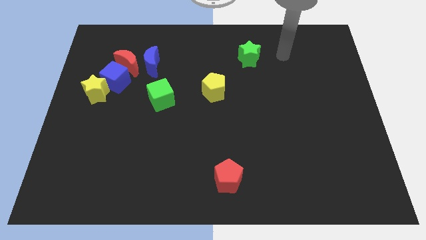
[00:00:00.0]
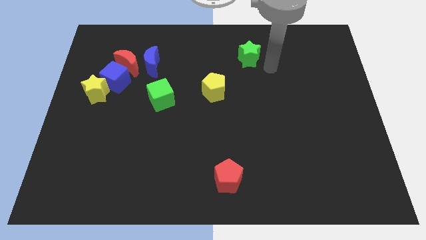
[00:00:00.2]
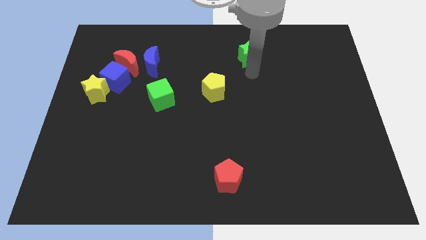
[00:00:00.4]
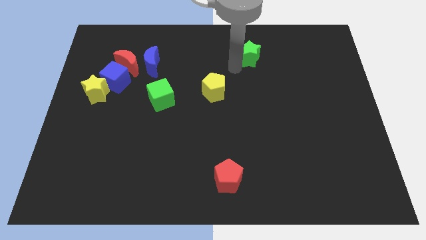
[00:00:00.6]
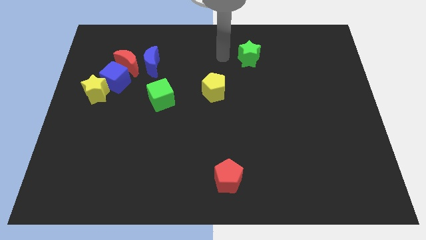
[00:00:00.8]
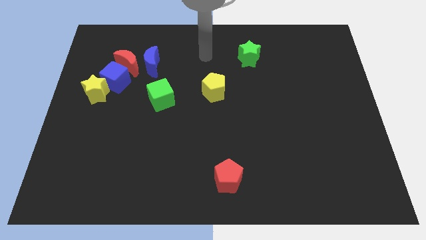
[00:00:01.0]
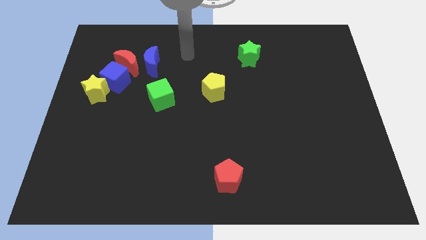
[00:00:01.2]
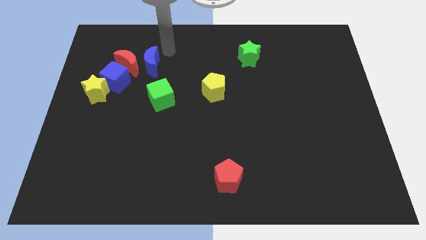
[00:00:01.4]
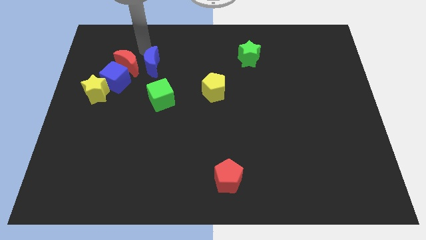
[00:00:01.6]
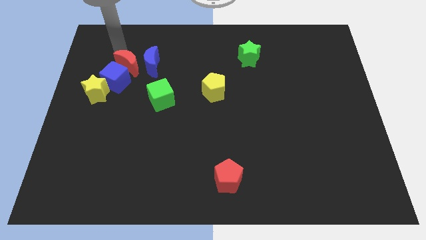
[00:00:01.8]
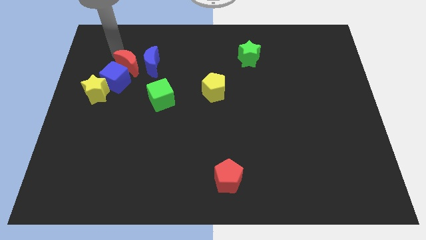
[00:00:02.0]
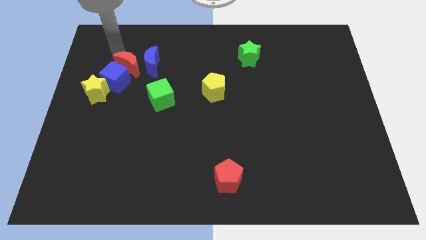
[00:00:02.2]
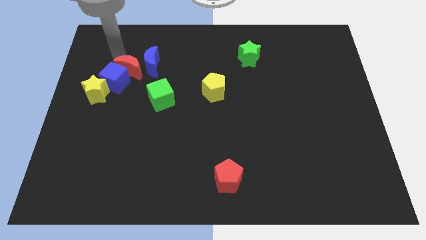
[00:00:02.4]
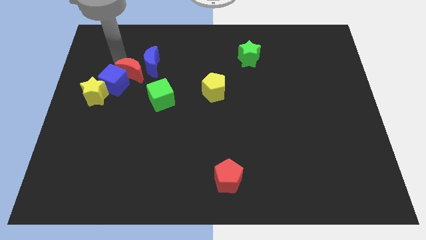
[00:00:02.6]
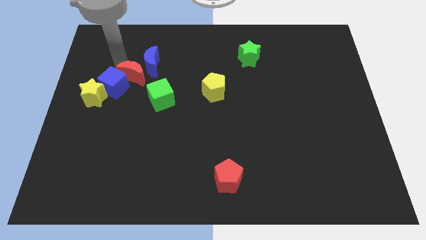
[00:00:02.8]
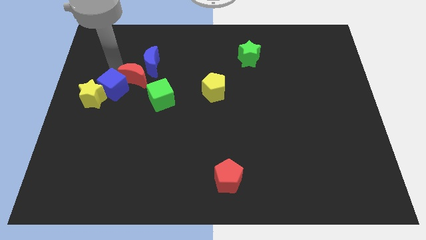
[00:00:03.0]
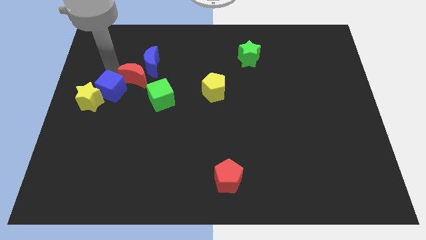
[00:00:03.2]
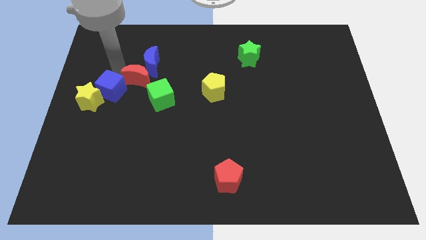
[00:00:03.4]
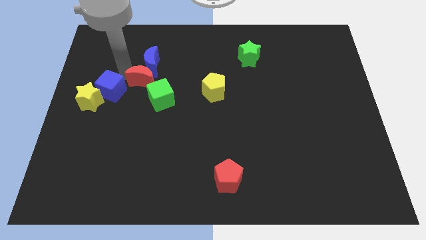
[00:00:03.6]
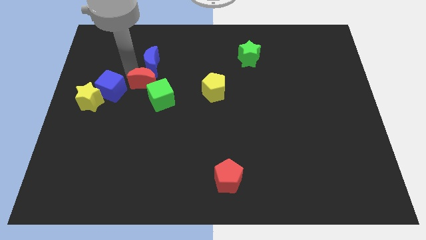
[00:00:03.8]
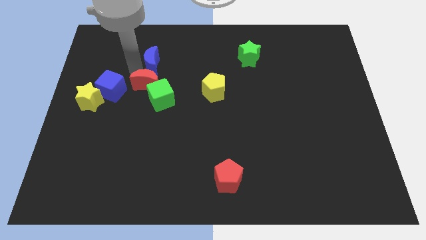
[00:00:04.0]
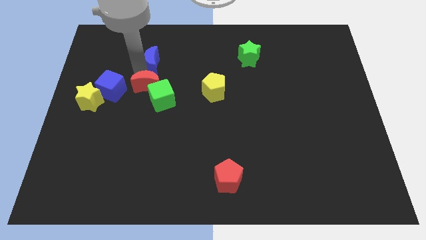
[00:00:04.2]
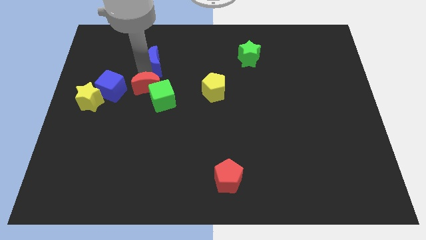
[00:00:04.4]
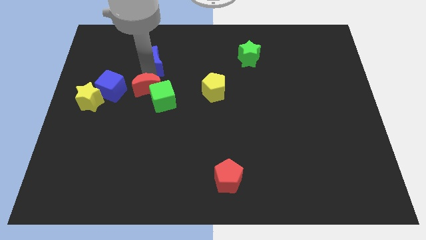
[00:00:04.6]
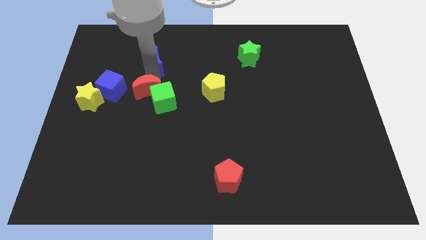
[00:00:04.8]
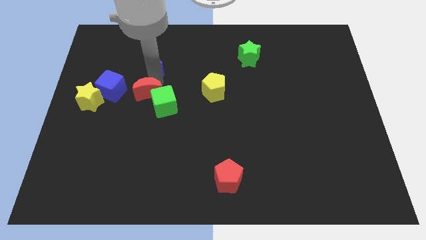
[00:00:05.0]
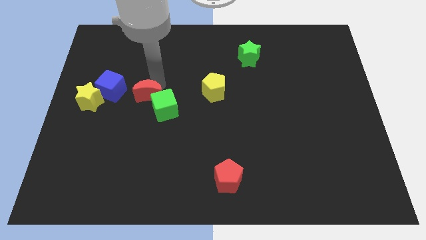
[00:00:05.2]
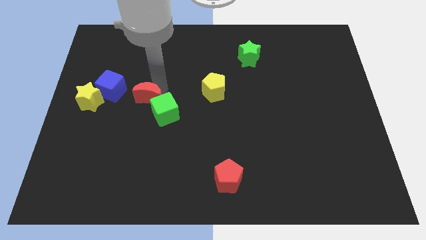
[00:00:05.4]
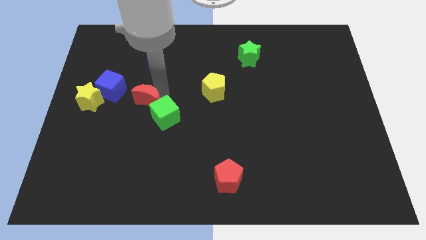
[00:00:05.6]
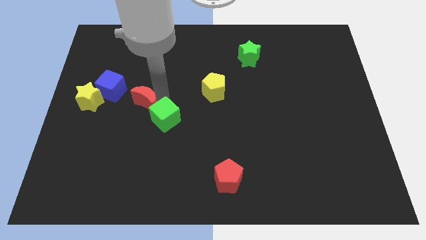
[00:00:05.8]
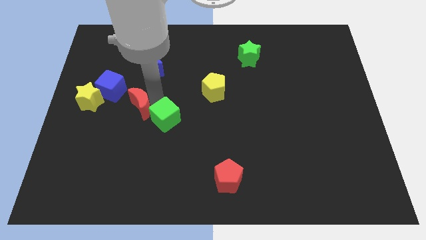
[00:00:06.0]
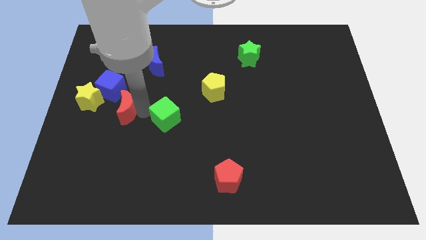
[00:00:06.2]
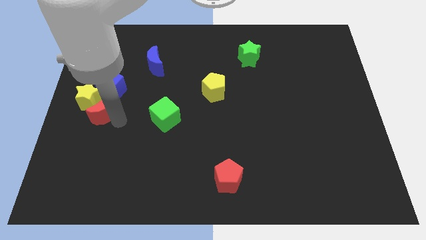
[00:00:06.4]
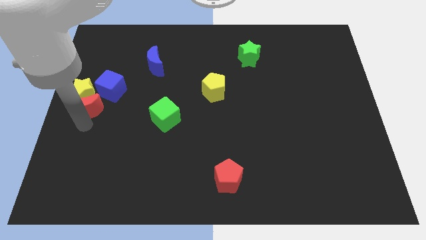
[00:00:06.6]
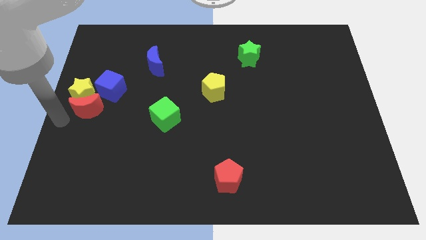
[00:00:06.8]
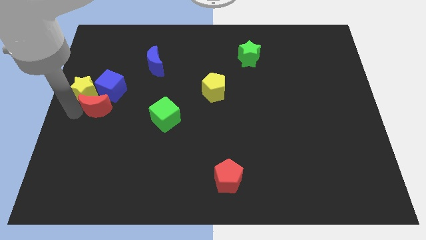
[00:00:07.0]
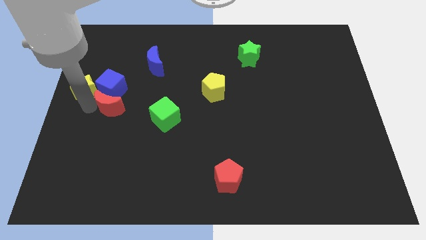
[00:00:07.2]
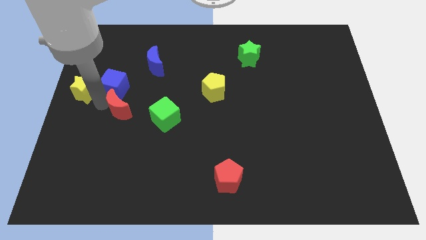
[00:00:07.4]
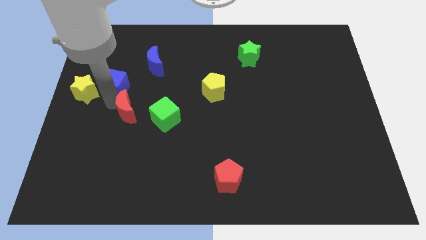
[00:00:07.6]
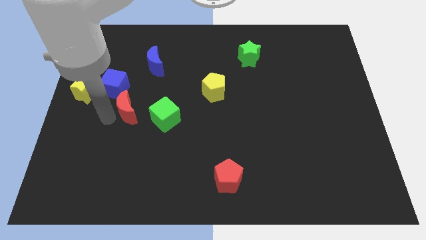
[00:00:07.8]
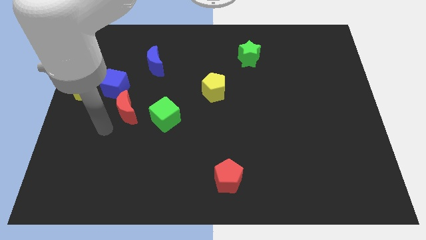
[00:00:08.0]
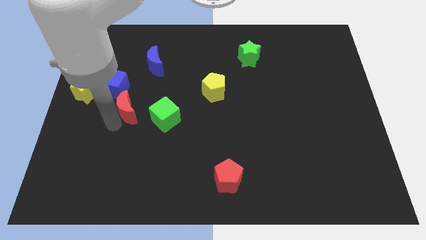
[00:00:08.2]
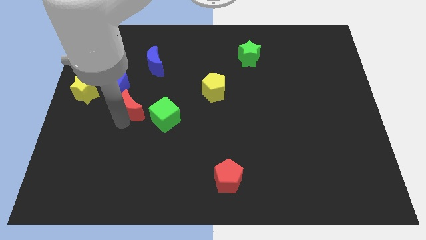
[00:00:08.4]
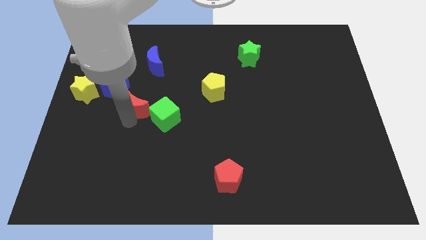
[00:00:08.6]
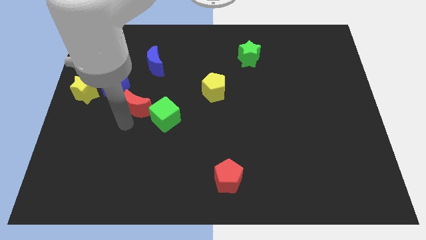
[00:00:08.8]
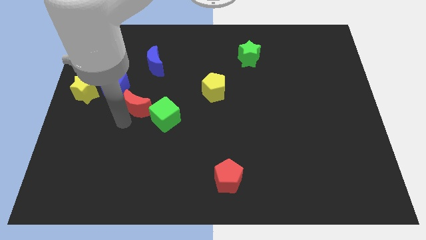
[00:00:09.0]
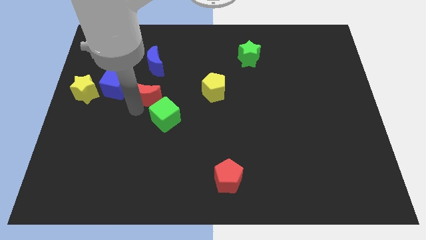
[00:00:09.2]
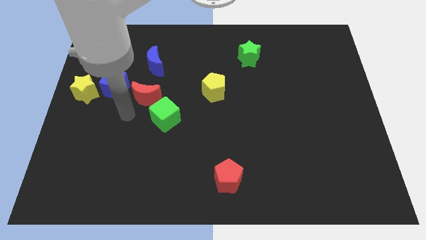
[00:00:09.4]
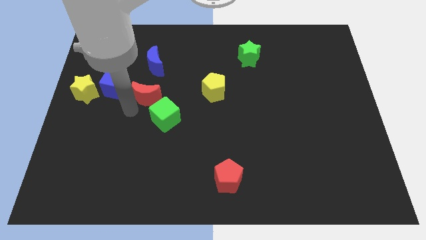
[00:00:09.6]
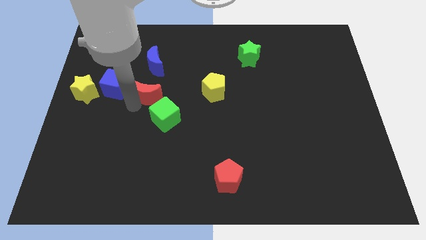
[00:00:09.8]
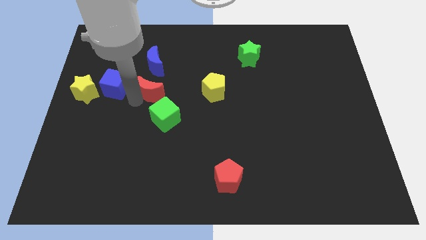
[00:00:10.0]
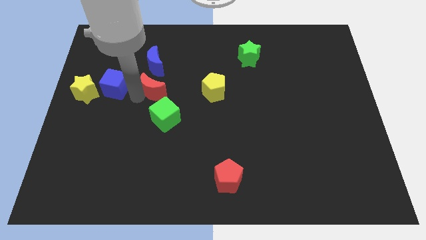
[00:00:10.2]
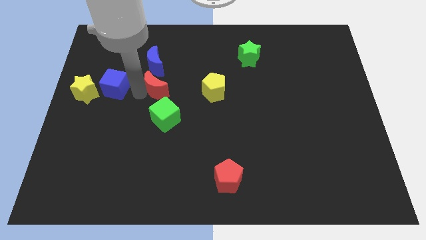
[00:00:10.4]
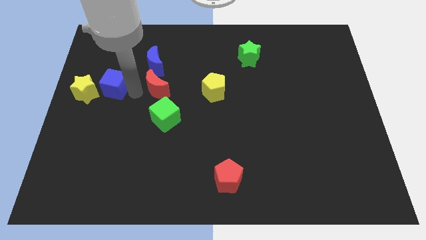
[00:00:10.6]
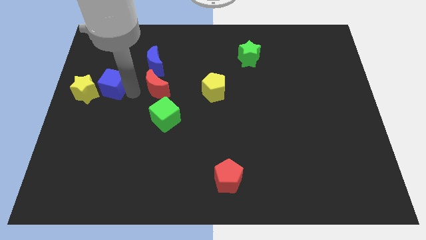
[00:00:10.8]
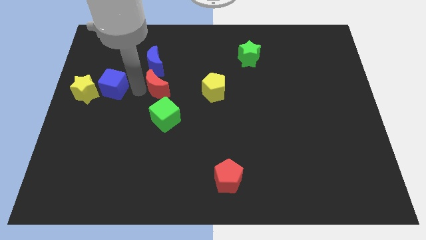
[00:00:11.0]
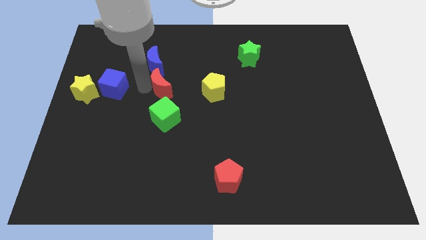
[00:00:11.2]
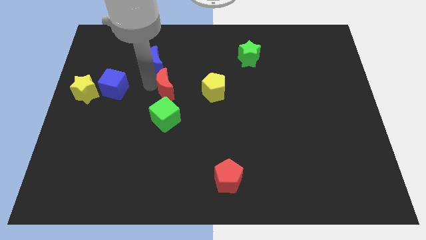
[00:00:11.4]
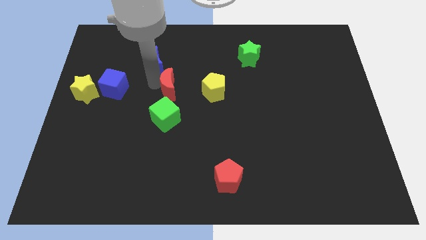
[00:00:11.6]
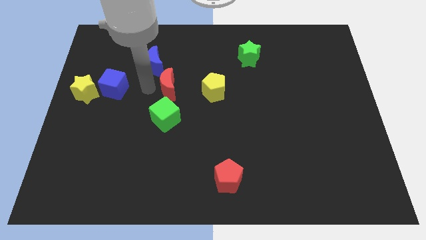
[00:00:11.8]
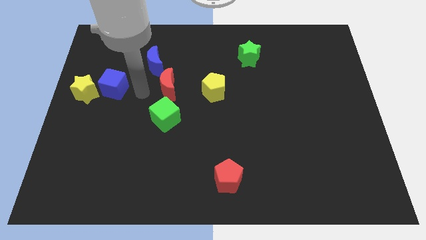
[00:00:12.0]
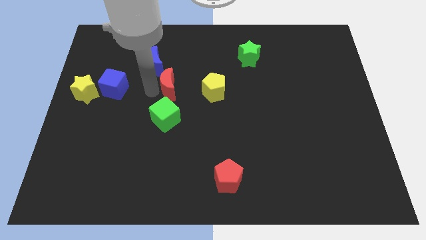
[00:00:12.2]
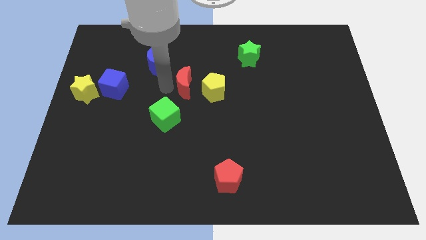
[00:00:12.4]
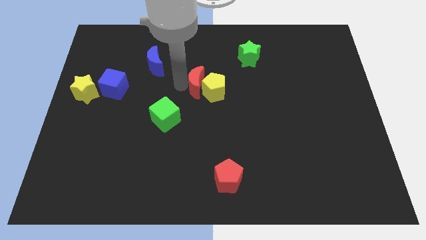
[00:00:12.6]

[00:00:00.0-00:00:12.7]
put the red moon next to the yellow pentagon
